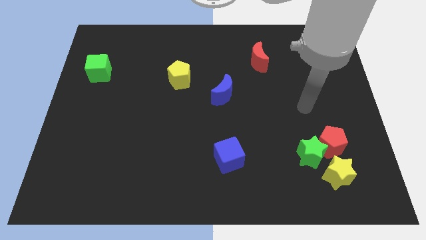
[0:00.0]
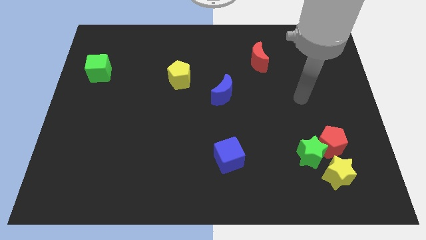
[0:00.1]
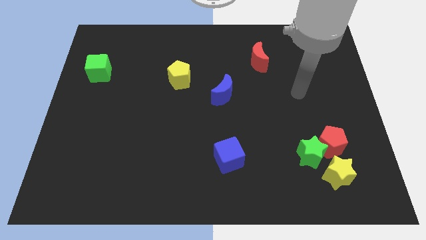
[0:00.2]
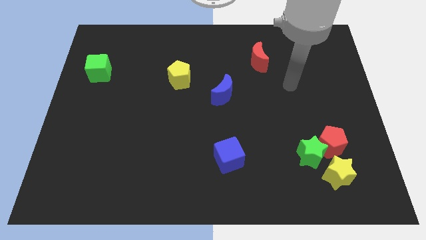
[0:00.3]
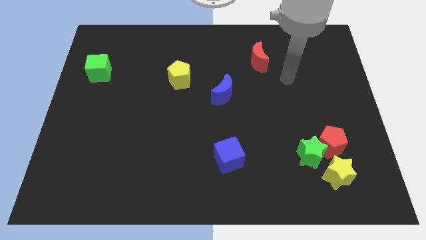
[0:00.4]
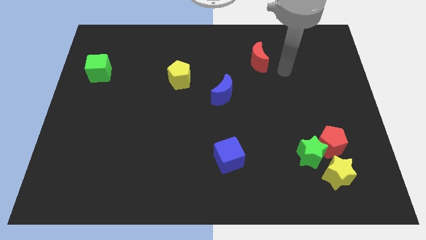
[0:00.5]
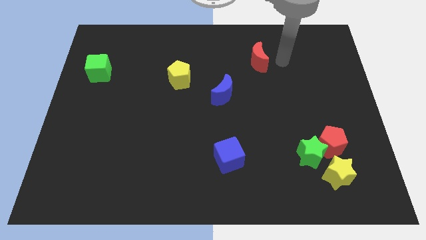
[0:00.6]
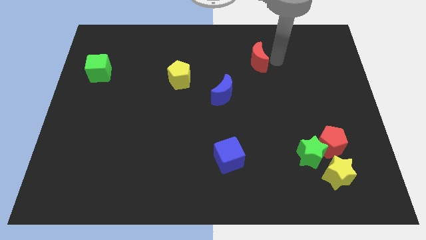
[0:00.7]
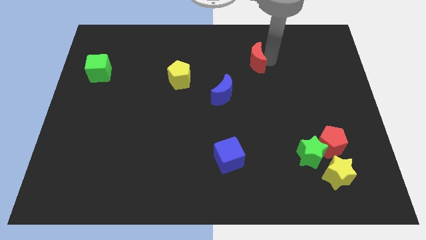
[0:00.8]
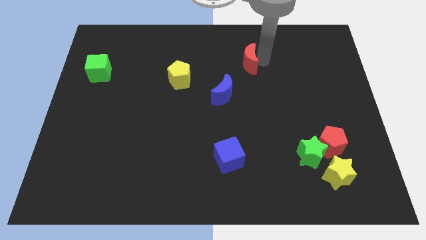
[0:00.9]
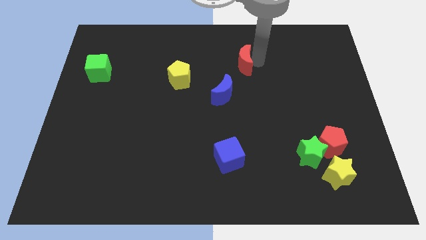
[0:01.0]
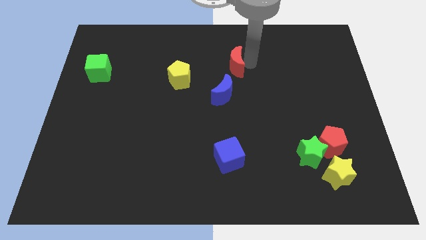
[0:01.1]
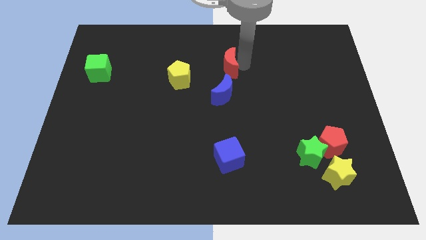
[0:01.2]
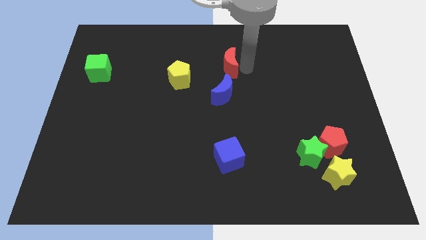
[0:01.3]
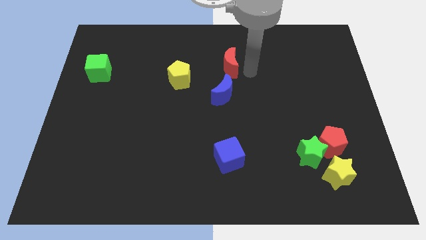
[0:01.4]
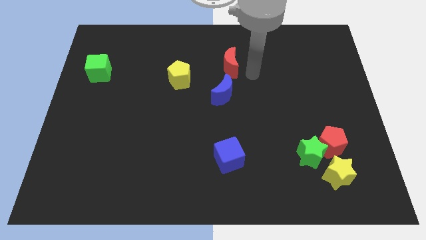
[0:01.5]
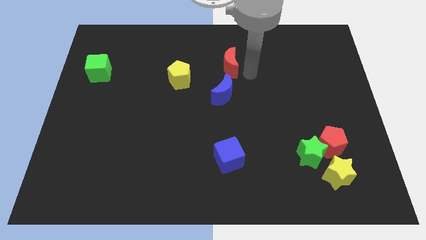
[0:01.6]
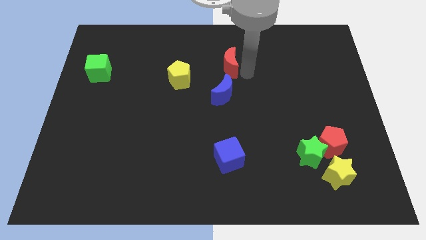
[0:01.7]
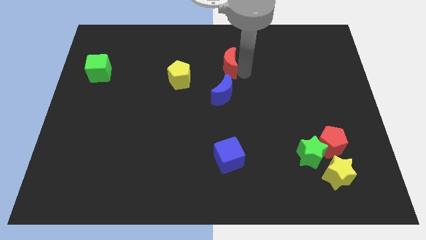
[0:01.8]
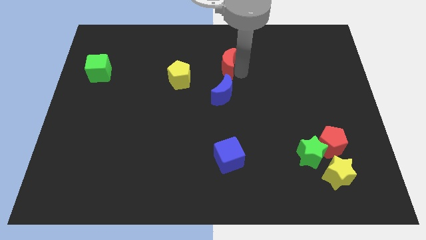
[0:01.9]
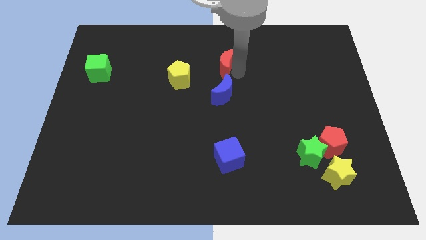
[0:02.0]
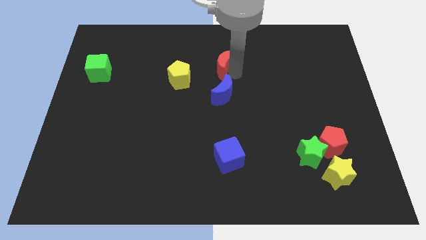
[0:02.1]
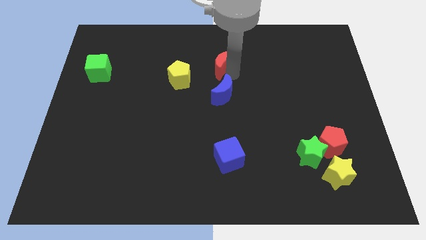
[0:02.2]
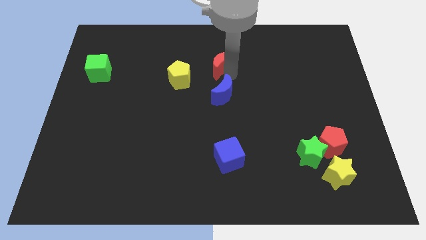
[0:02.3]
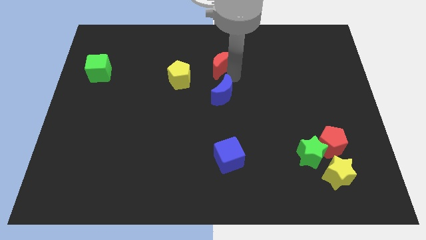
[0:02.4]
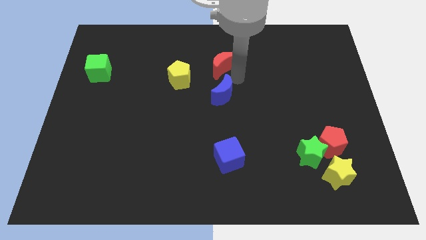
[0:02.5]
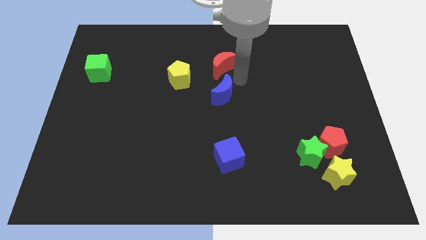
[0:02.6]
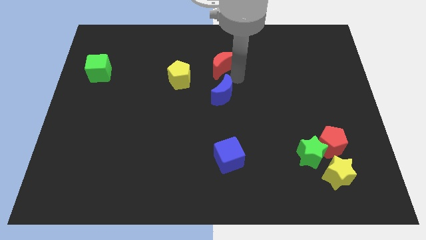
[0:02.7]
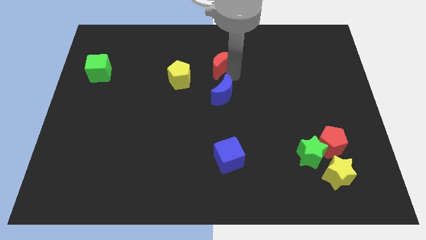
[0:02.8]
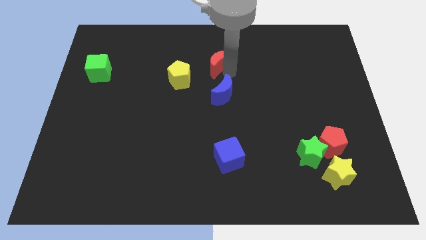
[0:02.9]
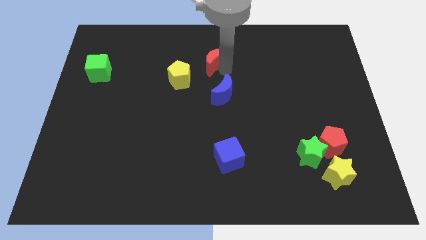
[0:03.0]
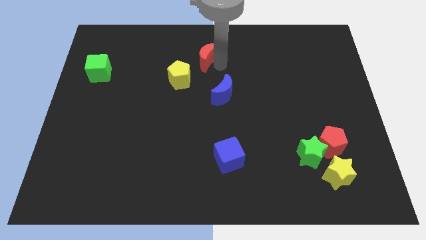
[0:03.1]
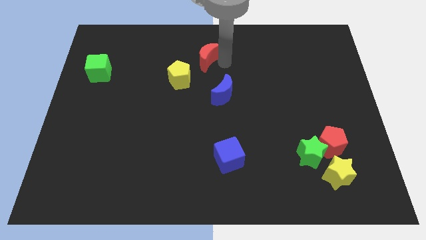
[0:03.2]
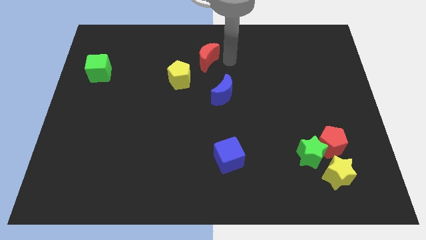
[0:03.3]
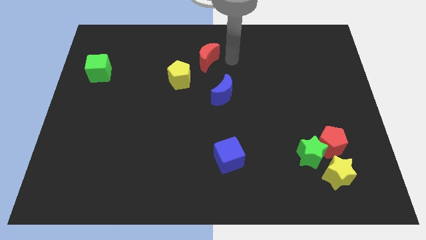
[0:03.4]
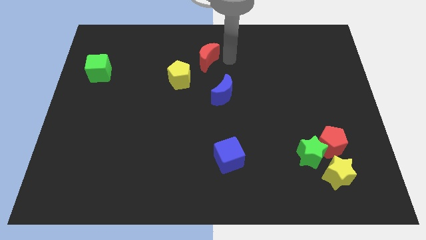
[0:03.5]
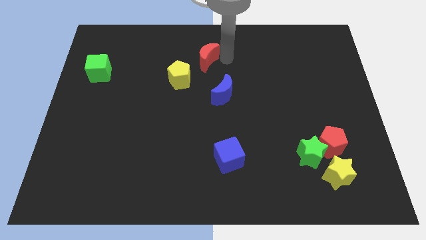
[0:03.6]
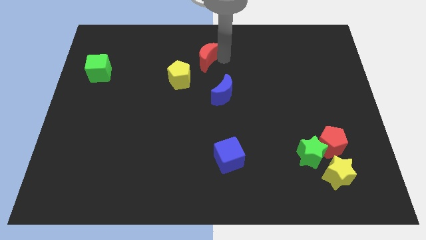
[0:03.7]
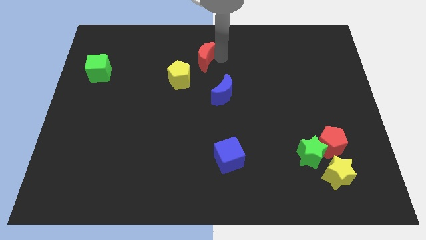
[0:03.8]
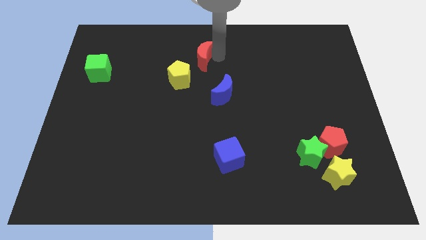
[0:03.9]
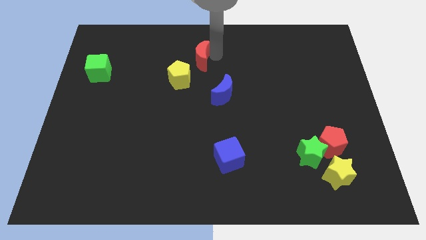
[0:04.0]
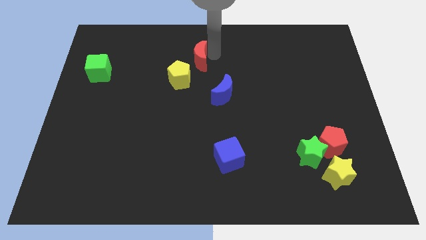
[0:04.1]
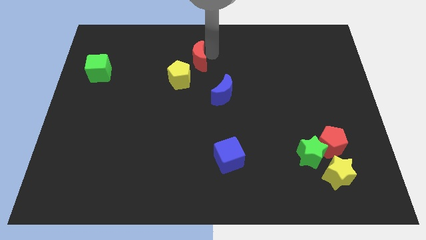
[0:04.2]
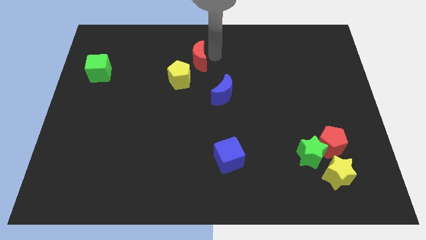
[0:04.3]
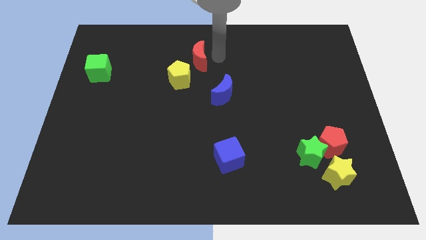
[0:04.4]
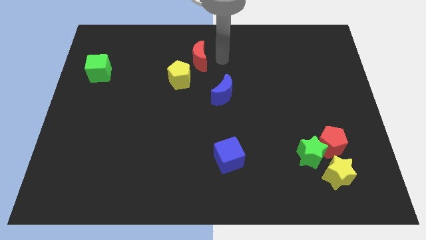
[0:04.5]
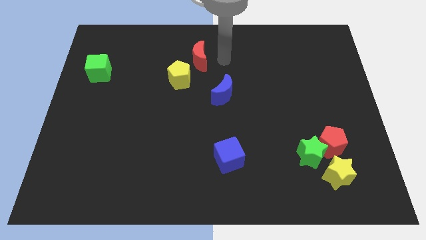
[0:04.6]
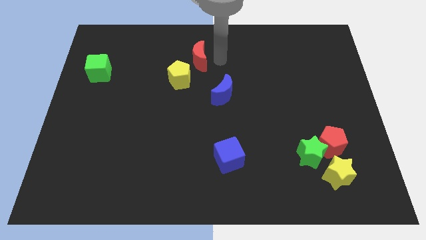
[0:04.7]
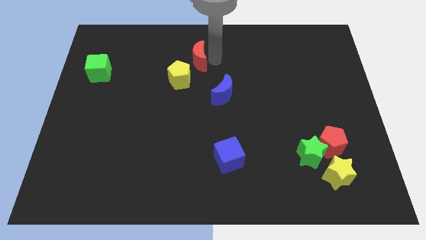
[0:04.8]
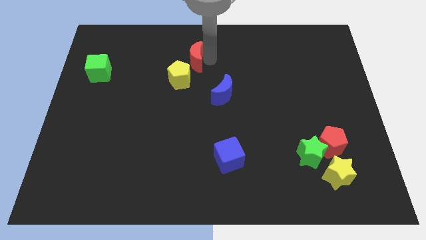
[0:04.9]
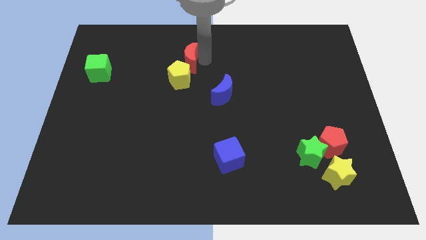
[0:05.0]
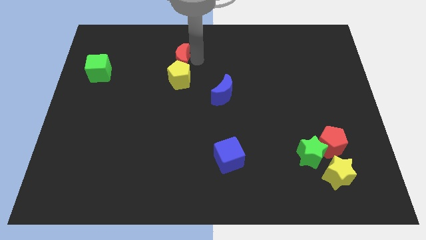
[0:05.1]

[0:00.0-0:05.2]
slide the red moon left

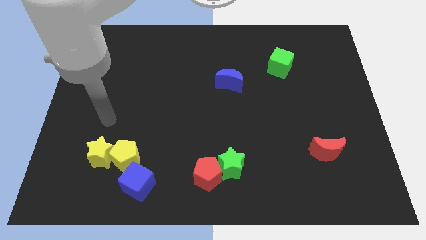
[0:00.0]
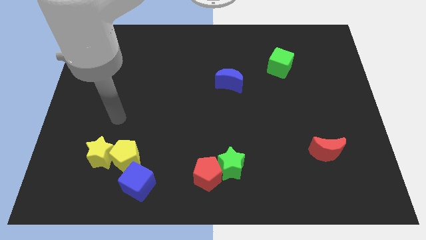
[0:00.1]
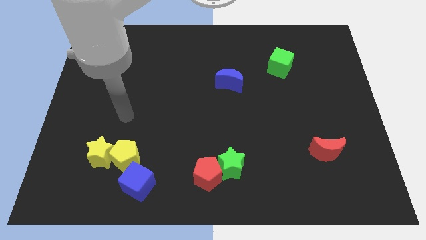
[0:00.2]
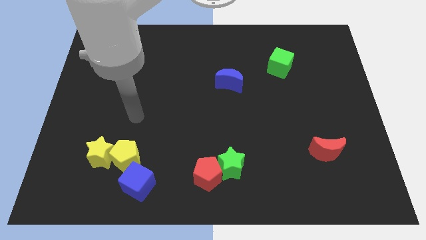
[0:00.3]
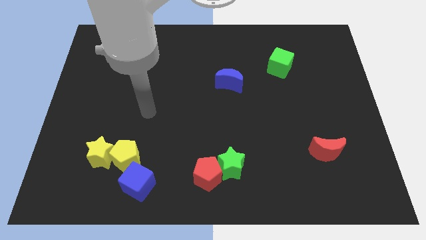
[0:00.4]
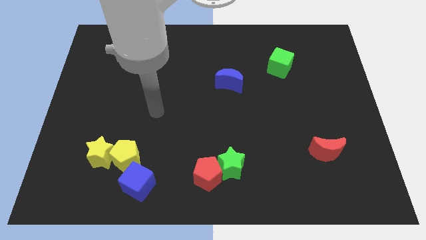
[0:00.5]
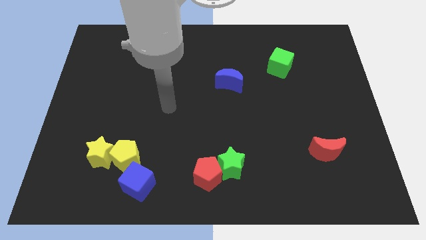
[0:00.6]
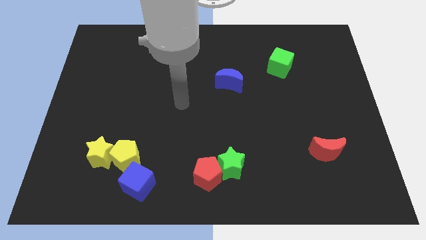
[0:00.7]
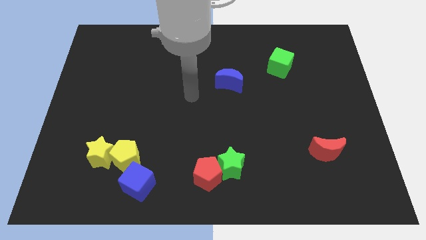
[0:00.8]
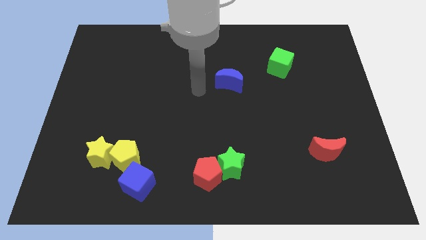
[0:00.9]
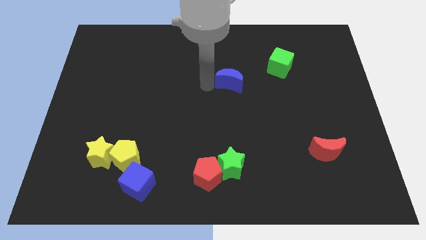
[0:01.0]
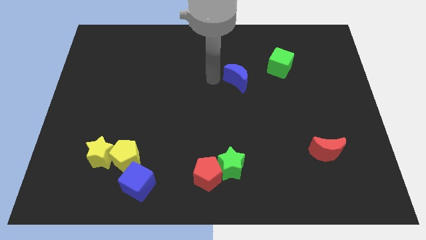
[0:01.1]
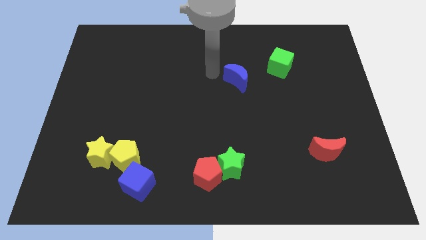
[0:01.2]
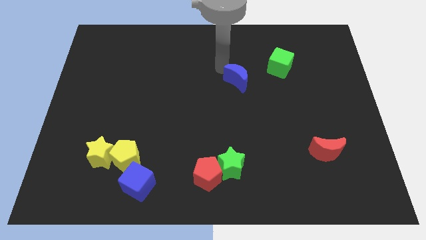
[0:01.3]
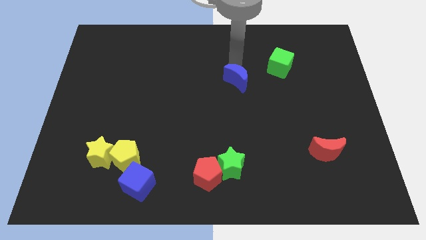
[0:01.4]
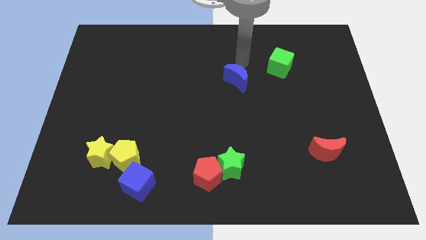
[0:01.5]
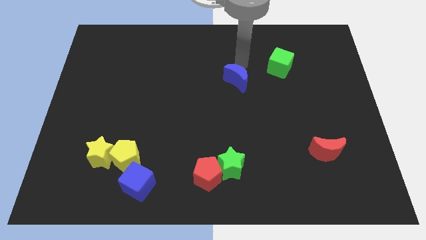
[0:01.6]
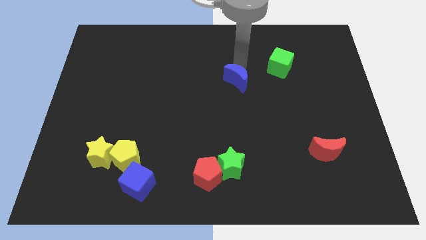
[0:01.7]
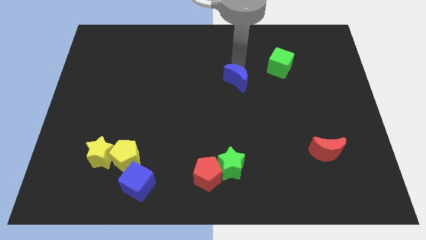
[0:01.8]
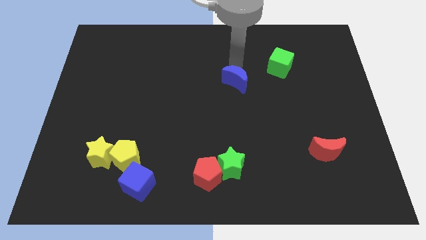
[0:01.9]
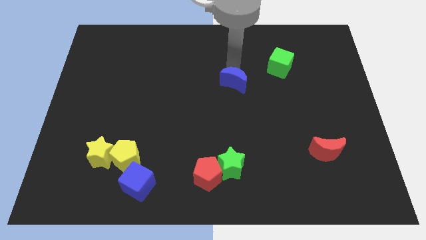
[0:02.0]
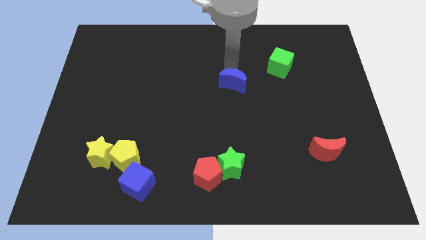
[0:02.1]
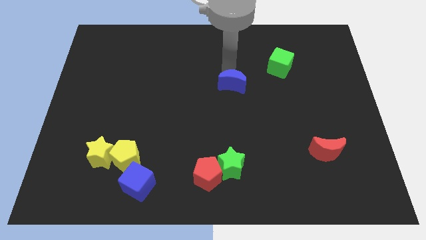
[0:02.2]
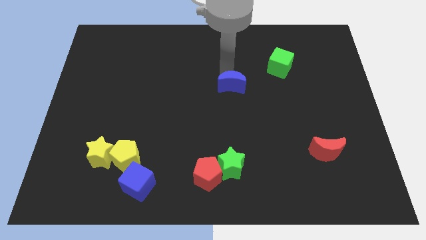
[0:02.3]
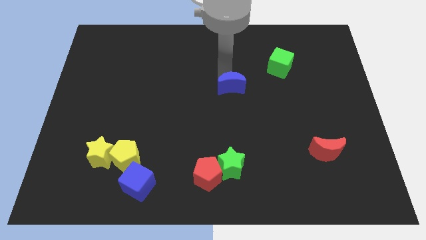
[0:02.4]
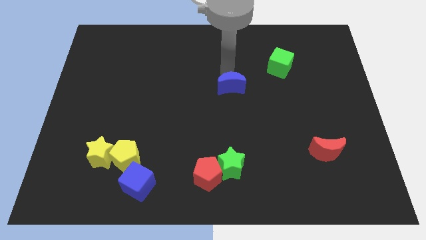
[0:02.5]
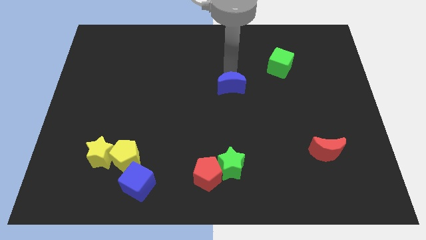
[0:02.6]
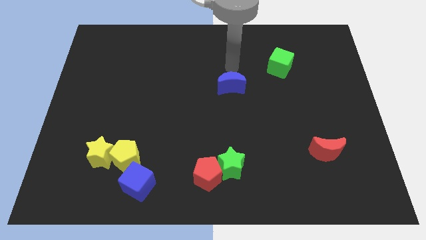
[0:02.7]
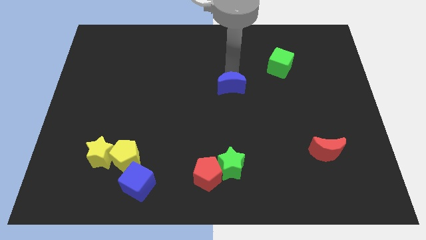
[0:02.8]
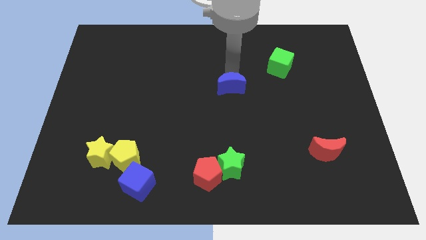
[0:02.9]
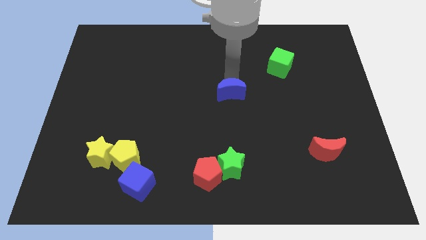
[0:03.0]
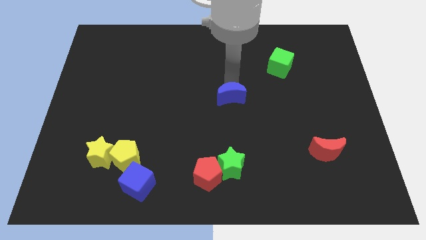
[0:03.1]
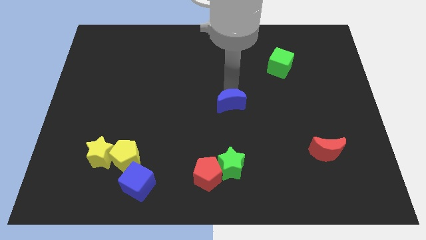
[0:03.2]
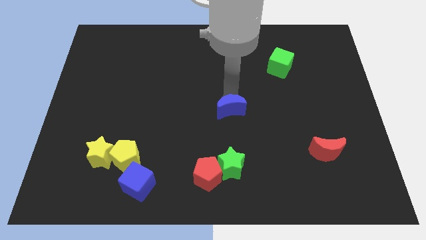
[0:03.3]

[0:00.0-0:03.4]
move the blue moon downwards a bit
